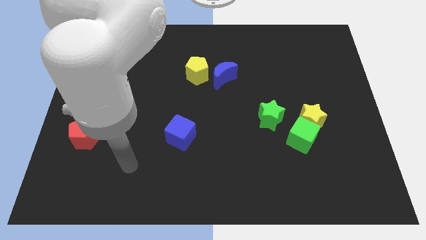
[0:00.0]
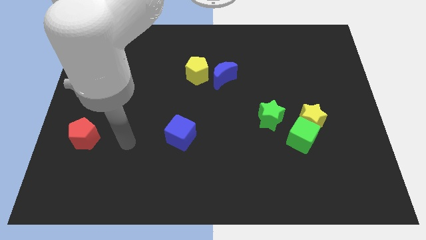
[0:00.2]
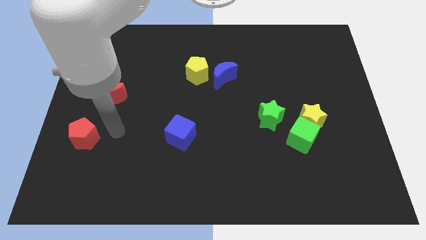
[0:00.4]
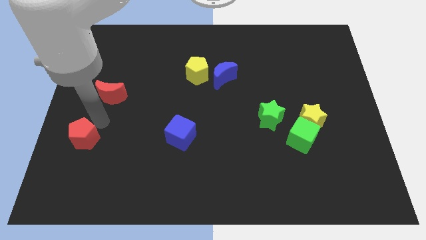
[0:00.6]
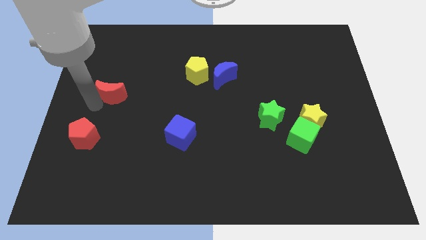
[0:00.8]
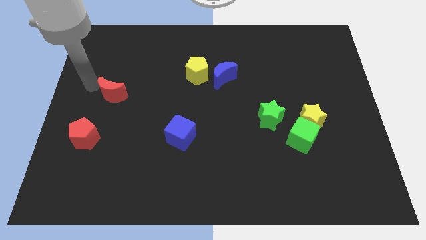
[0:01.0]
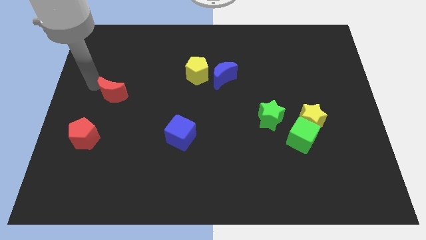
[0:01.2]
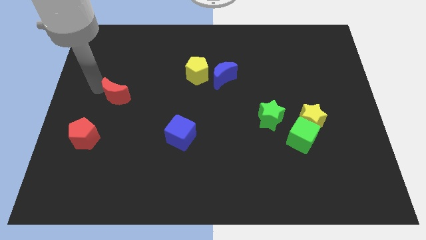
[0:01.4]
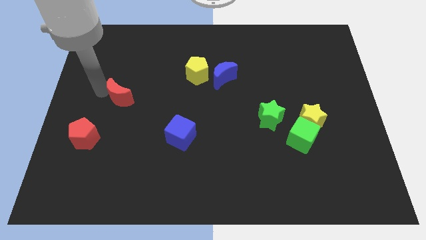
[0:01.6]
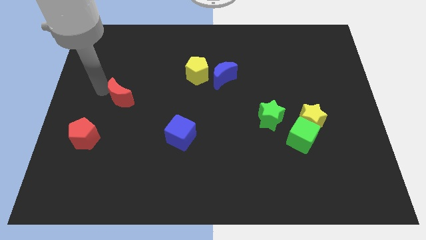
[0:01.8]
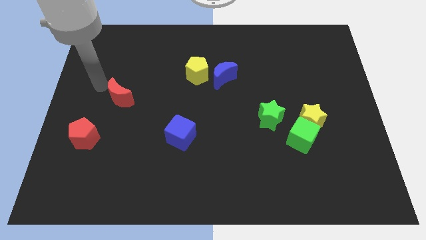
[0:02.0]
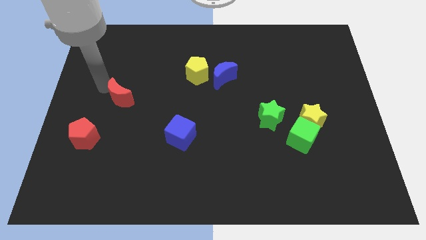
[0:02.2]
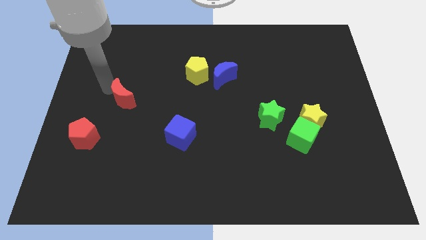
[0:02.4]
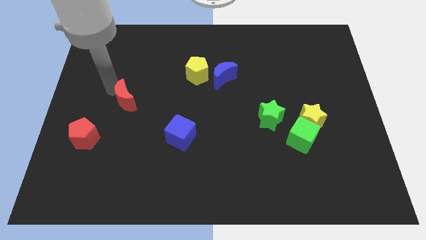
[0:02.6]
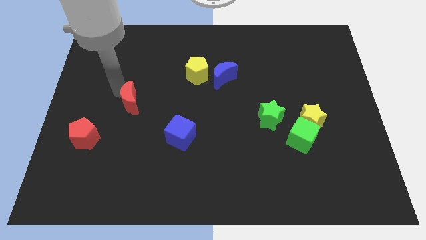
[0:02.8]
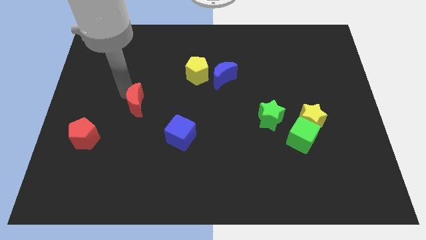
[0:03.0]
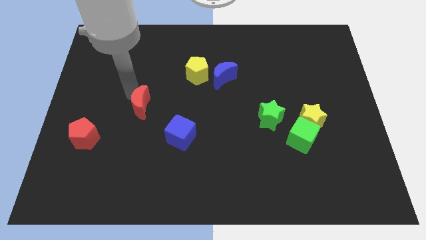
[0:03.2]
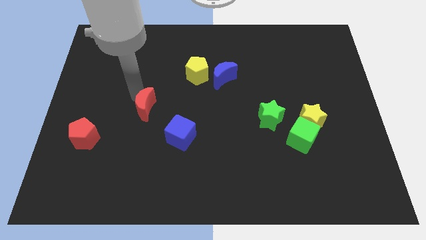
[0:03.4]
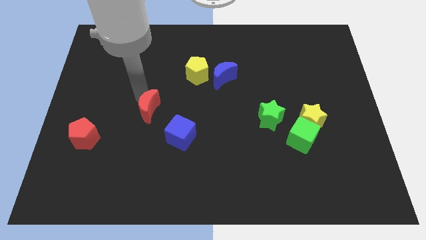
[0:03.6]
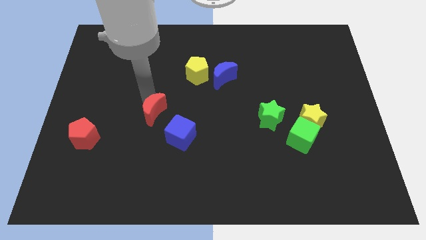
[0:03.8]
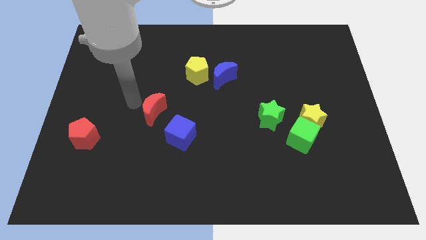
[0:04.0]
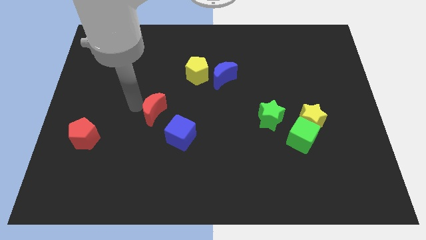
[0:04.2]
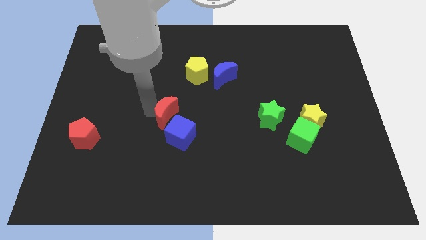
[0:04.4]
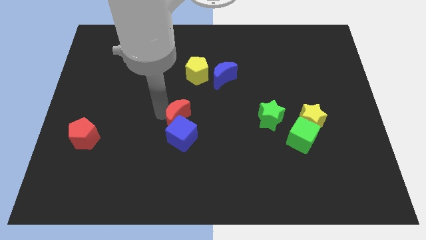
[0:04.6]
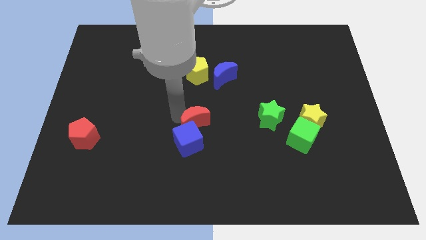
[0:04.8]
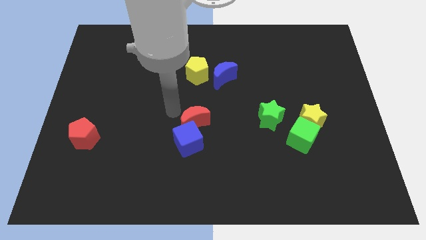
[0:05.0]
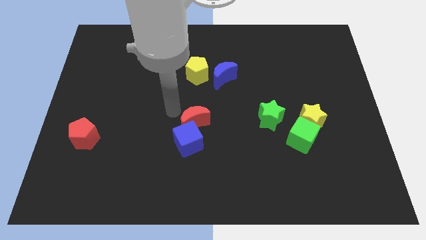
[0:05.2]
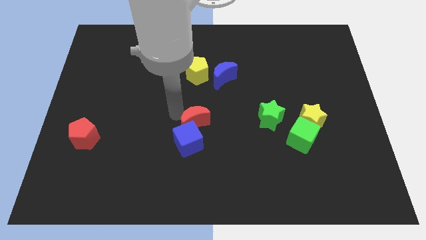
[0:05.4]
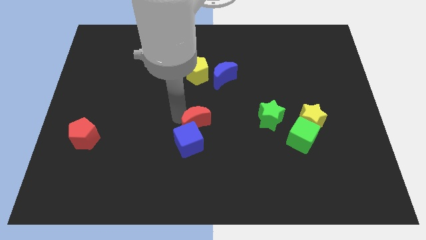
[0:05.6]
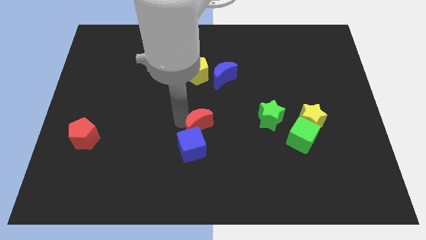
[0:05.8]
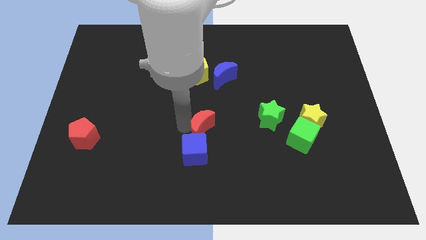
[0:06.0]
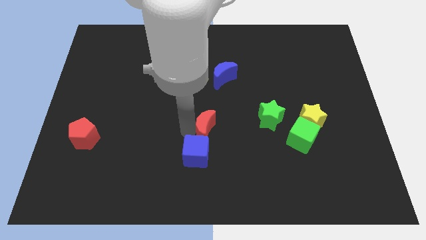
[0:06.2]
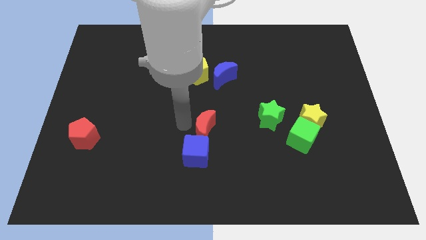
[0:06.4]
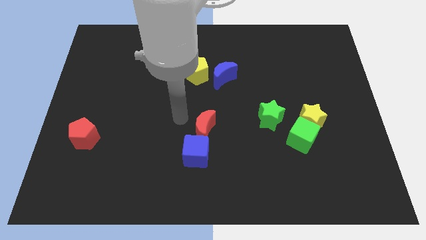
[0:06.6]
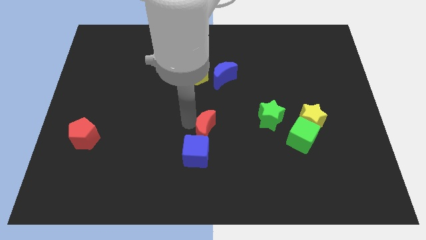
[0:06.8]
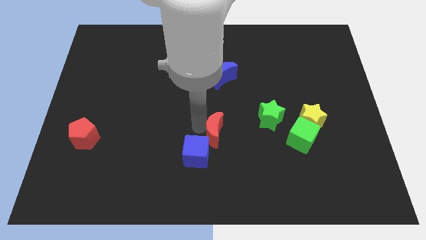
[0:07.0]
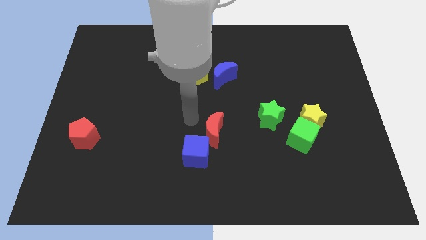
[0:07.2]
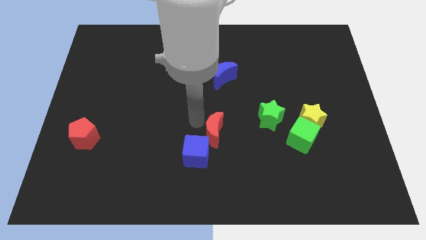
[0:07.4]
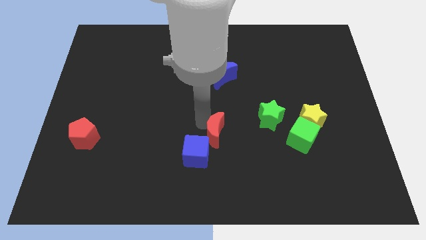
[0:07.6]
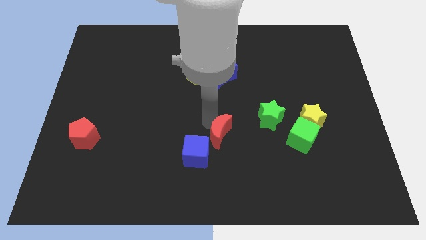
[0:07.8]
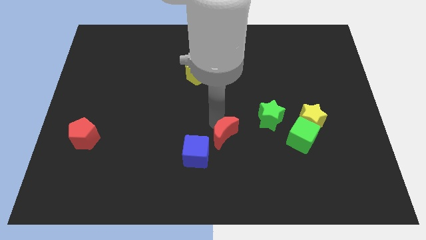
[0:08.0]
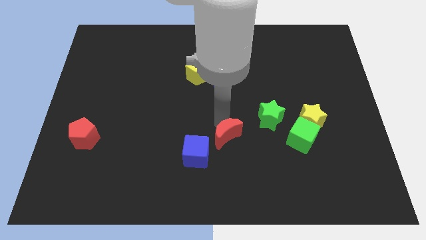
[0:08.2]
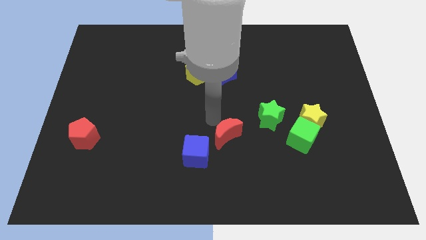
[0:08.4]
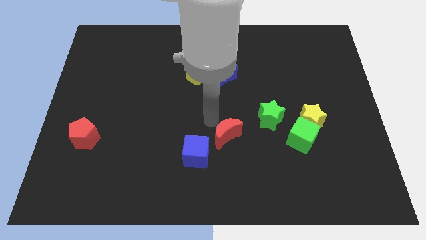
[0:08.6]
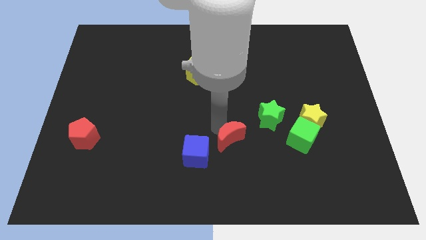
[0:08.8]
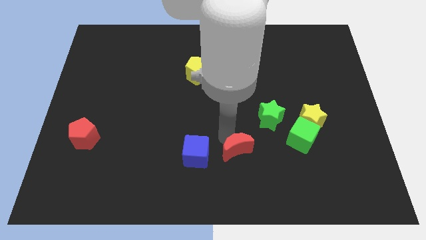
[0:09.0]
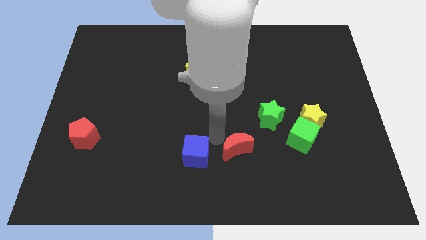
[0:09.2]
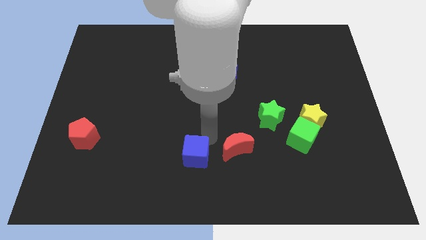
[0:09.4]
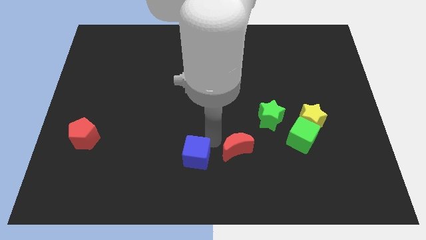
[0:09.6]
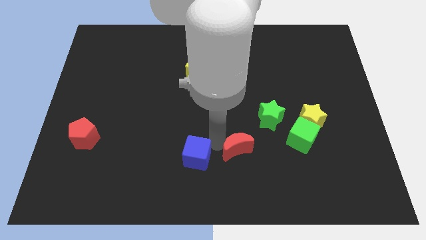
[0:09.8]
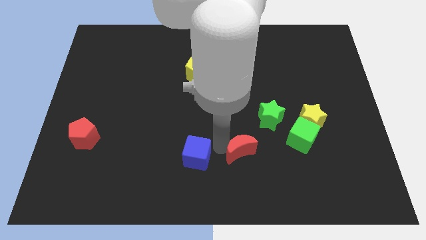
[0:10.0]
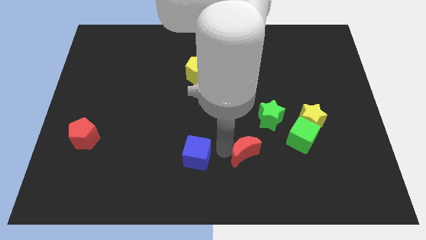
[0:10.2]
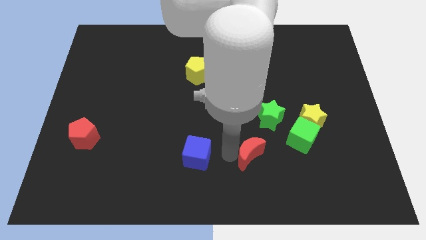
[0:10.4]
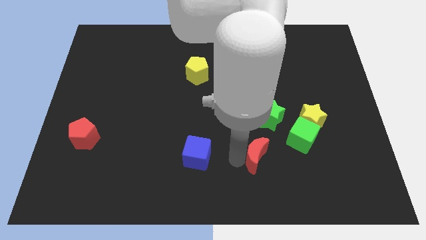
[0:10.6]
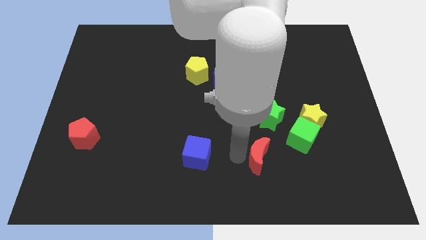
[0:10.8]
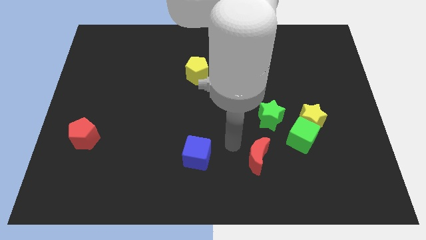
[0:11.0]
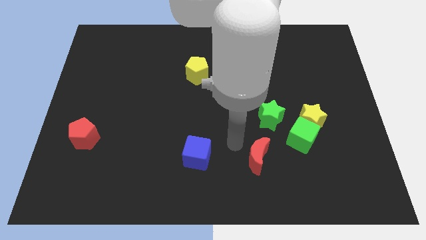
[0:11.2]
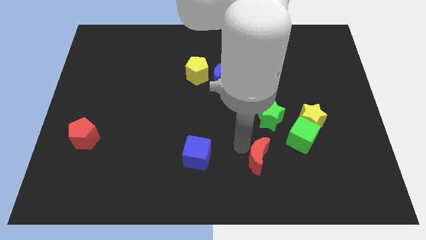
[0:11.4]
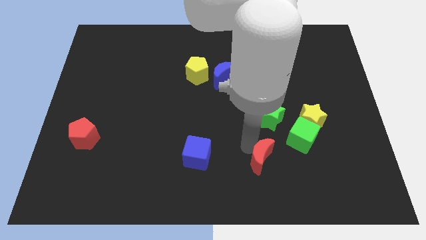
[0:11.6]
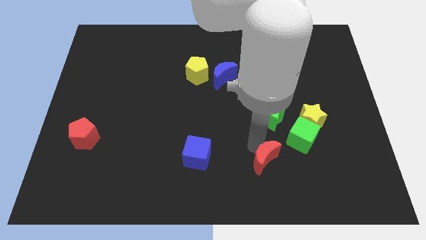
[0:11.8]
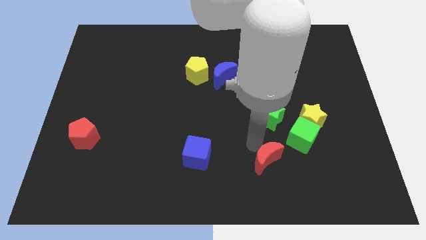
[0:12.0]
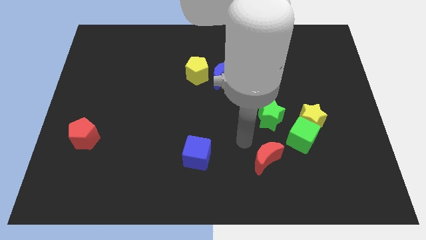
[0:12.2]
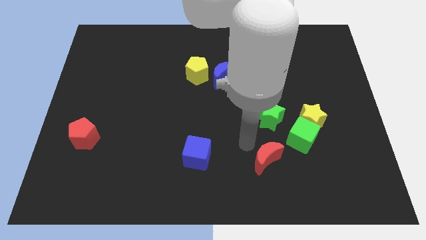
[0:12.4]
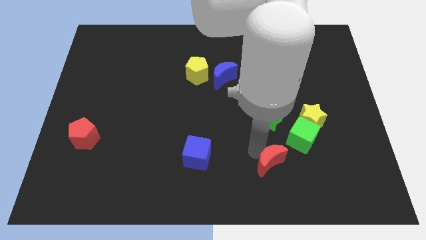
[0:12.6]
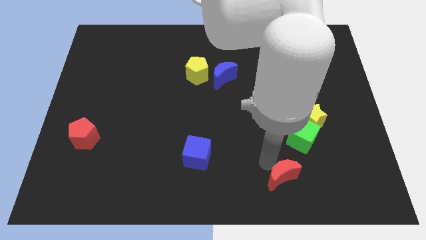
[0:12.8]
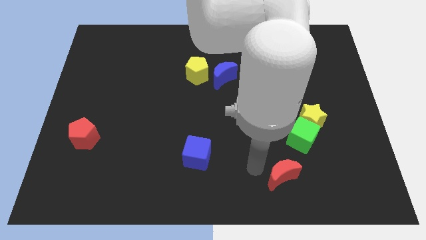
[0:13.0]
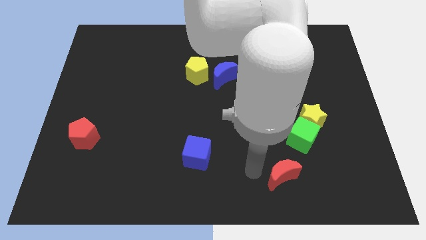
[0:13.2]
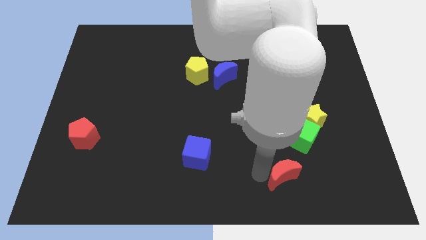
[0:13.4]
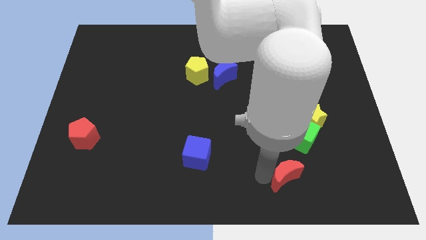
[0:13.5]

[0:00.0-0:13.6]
put the red moon below the green cube

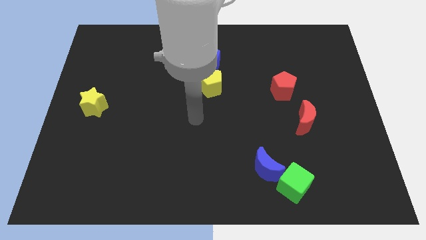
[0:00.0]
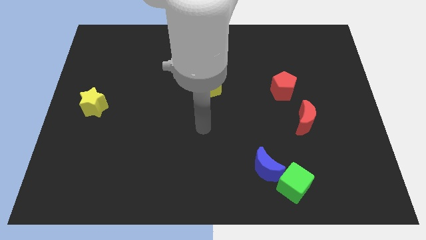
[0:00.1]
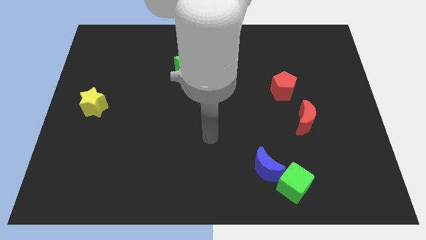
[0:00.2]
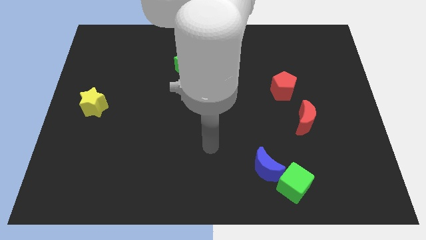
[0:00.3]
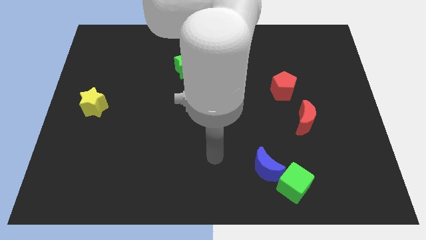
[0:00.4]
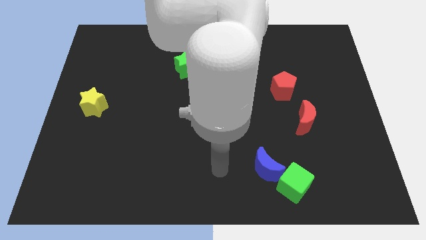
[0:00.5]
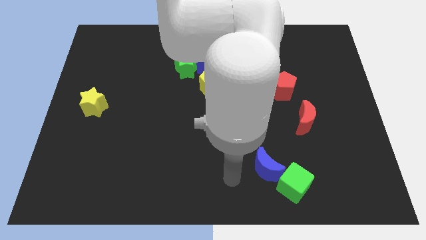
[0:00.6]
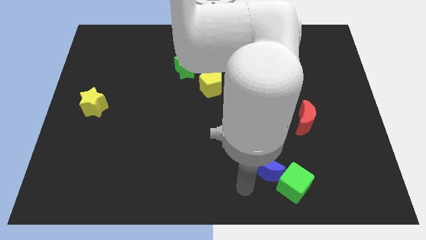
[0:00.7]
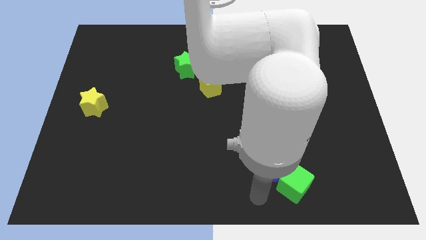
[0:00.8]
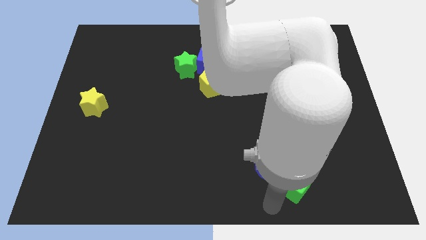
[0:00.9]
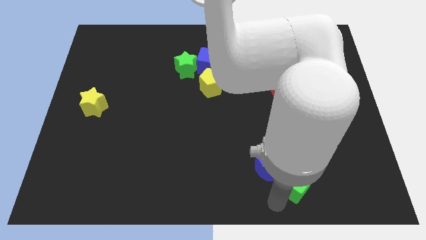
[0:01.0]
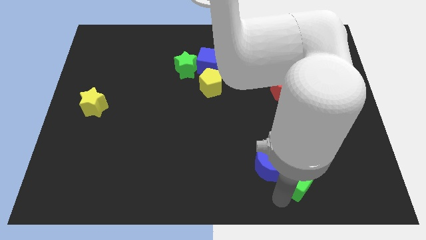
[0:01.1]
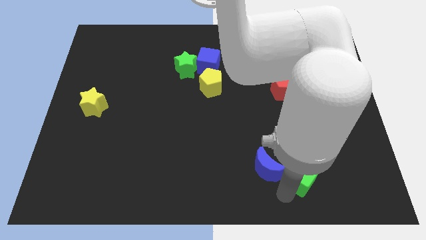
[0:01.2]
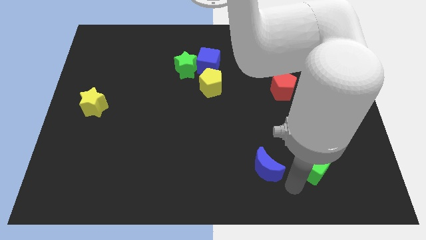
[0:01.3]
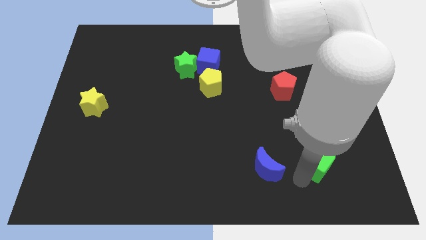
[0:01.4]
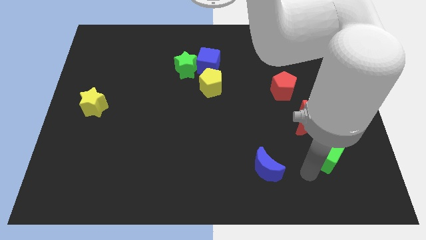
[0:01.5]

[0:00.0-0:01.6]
put the green cube to the bottom right of the red moon
